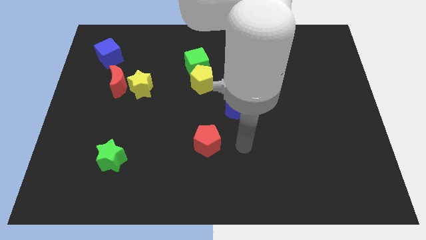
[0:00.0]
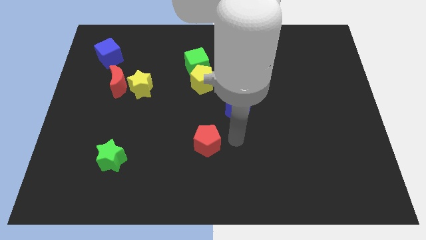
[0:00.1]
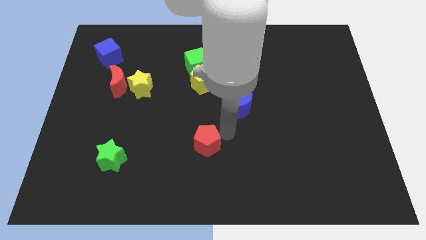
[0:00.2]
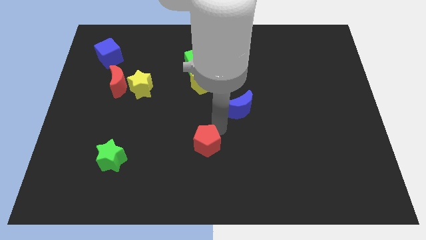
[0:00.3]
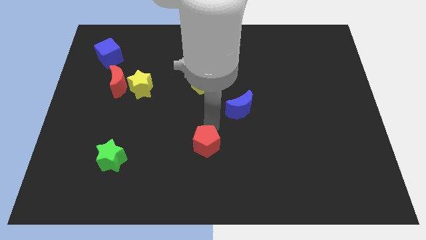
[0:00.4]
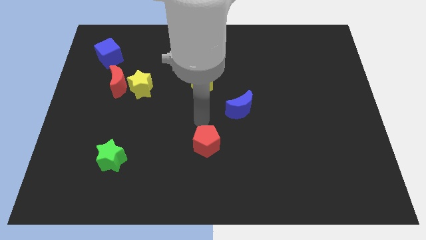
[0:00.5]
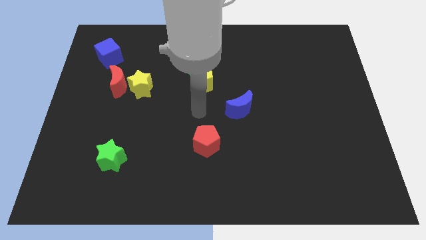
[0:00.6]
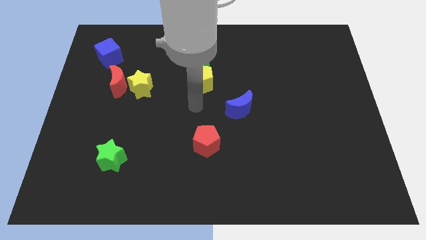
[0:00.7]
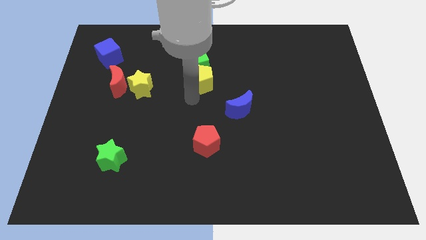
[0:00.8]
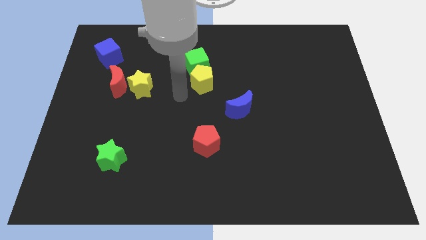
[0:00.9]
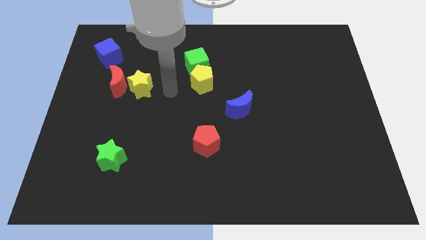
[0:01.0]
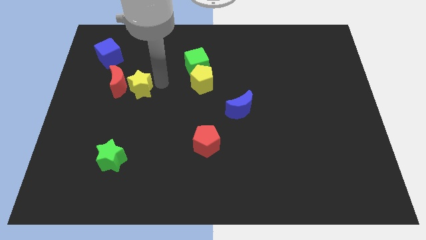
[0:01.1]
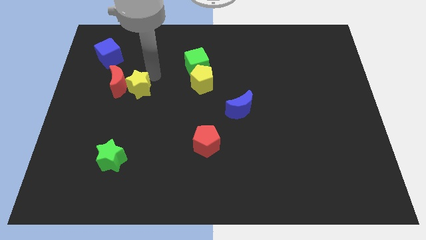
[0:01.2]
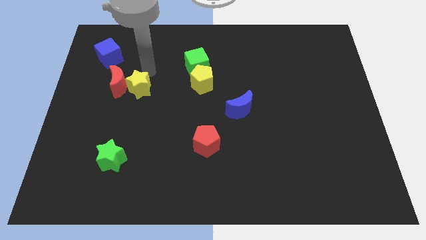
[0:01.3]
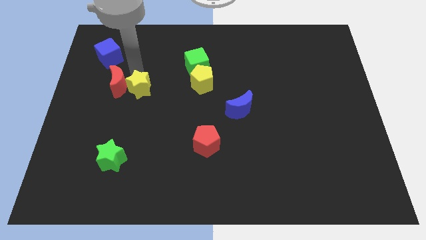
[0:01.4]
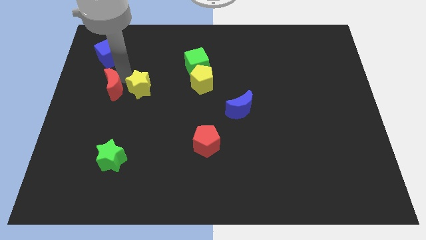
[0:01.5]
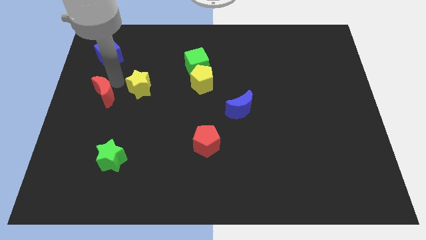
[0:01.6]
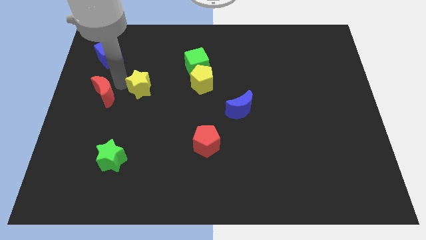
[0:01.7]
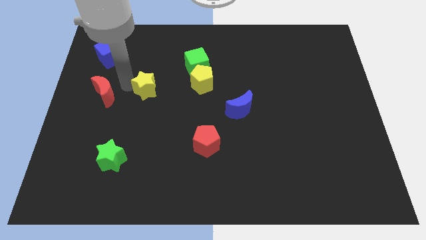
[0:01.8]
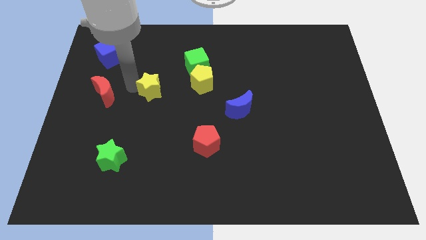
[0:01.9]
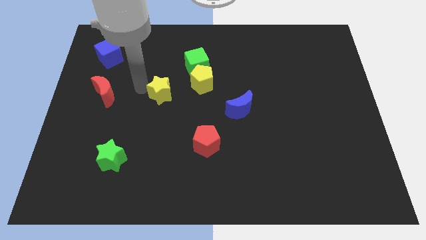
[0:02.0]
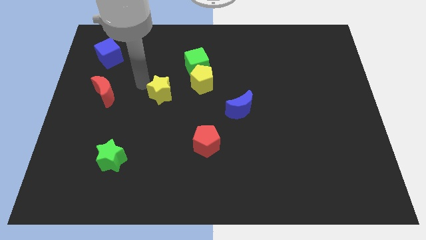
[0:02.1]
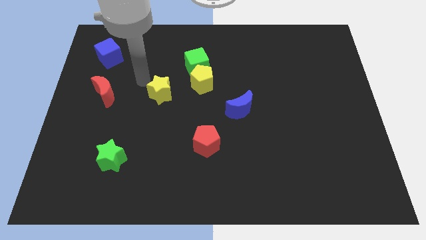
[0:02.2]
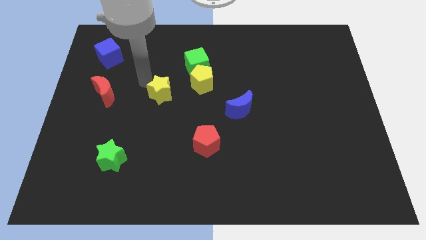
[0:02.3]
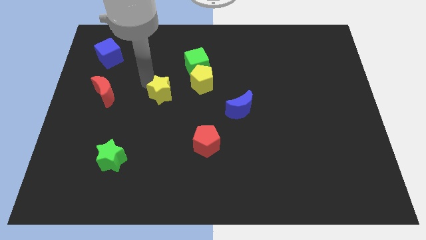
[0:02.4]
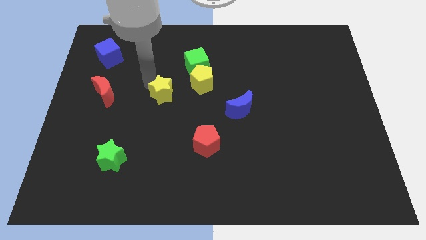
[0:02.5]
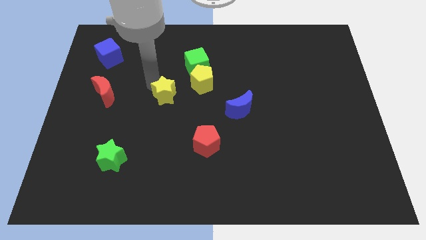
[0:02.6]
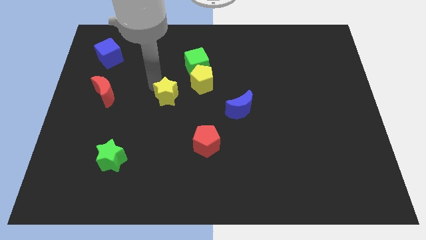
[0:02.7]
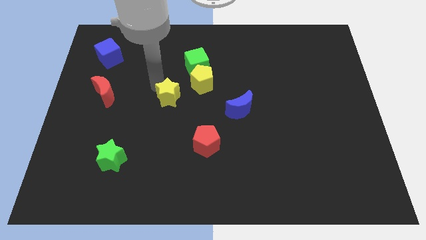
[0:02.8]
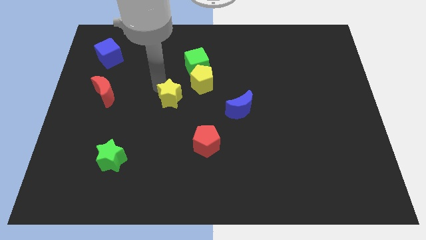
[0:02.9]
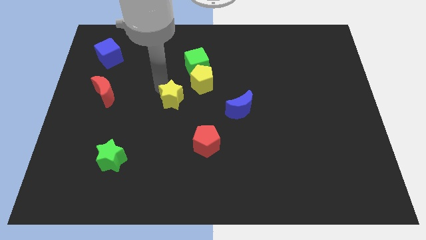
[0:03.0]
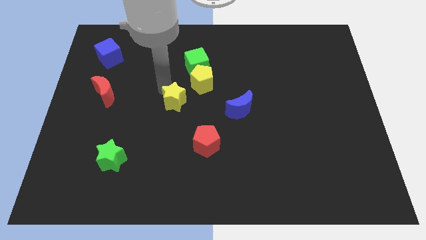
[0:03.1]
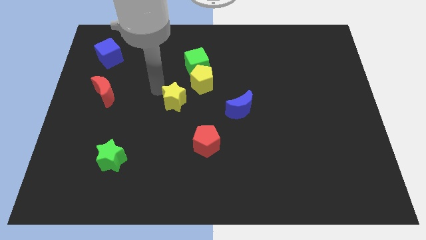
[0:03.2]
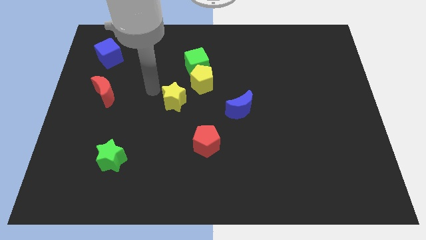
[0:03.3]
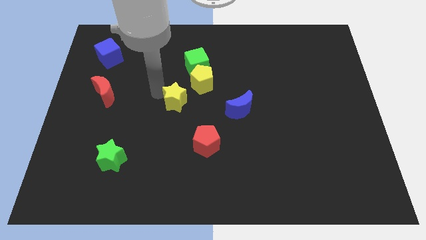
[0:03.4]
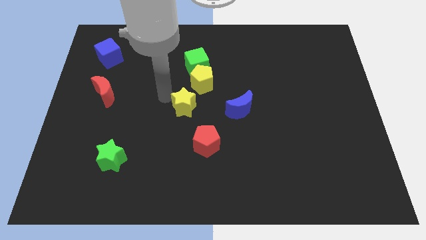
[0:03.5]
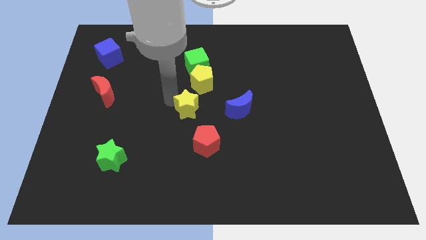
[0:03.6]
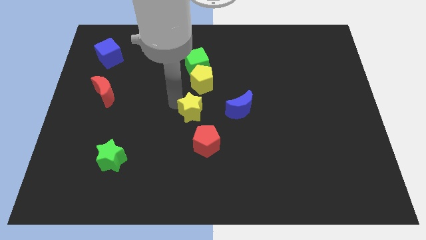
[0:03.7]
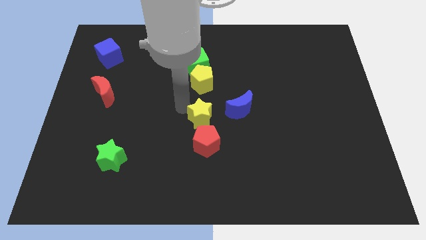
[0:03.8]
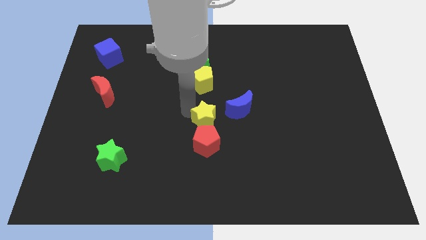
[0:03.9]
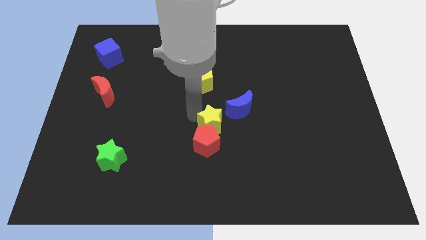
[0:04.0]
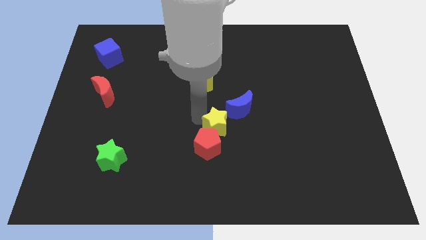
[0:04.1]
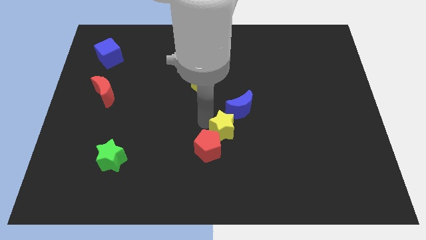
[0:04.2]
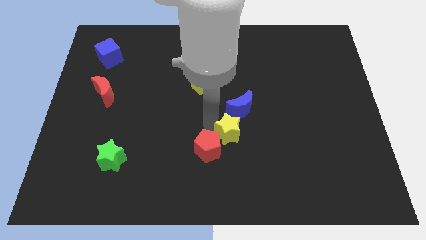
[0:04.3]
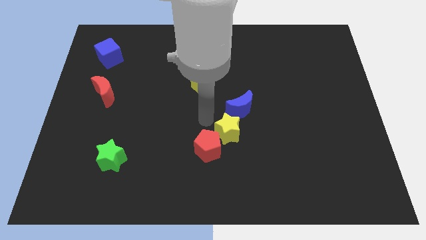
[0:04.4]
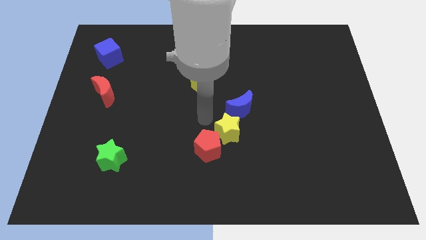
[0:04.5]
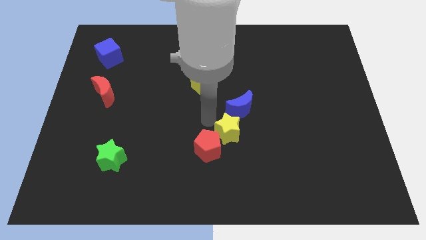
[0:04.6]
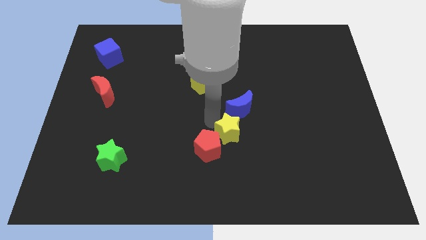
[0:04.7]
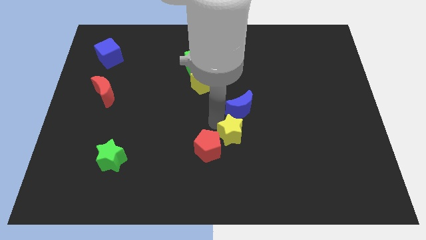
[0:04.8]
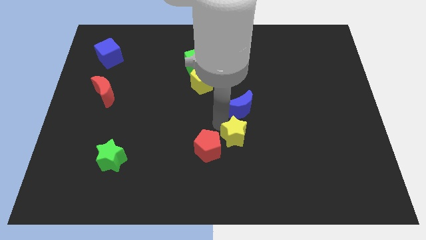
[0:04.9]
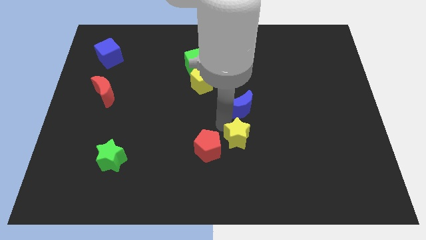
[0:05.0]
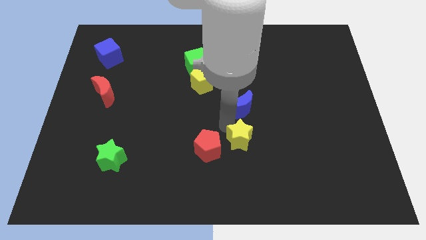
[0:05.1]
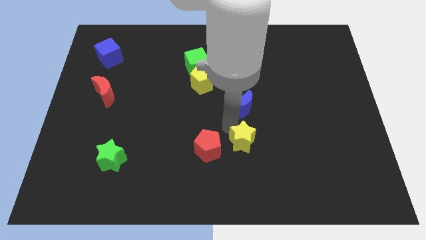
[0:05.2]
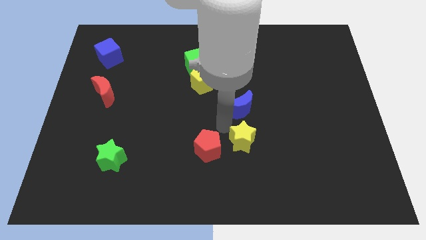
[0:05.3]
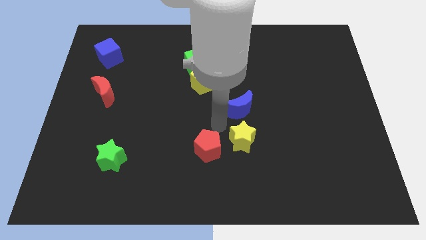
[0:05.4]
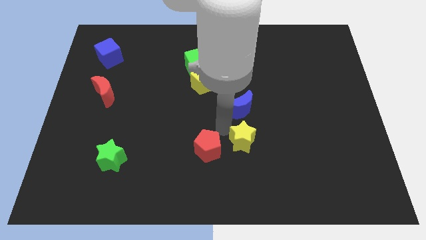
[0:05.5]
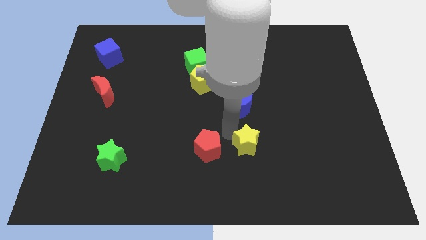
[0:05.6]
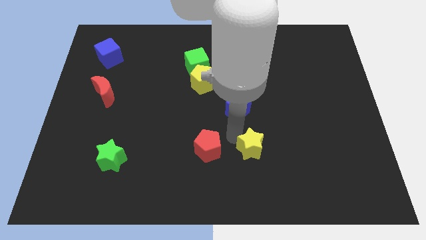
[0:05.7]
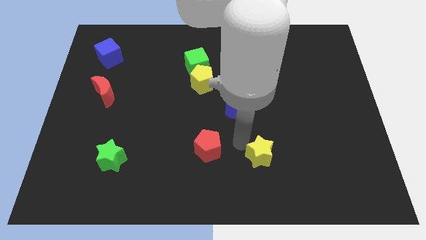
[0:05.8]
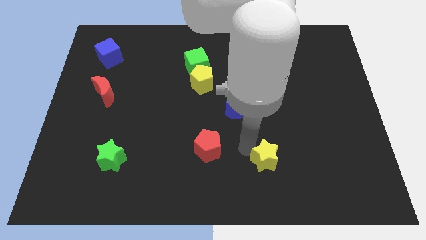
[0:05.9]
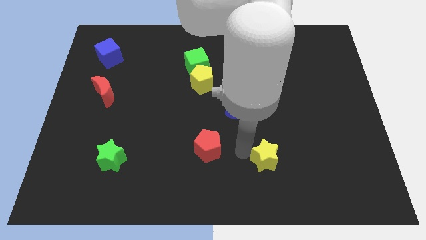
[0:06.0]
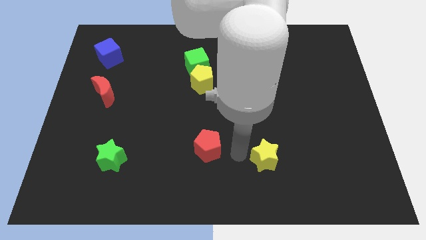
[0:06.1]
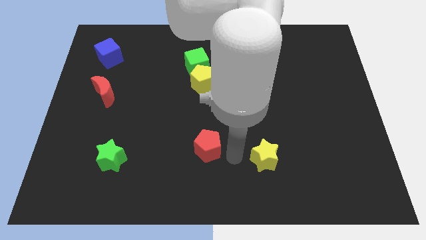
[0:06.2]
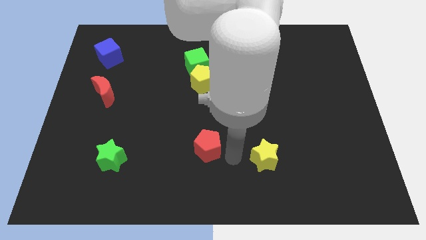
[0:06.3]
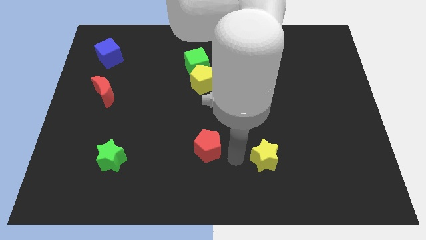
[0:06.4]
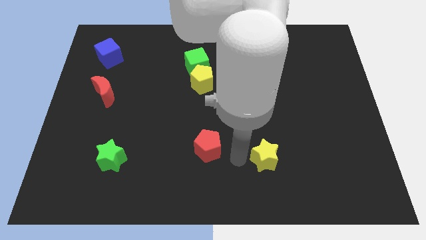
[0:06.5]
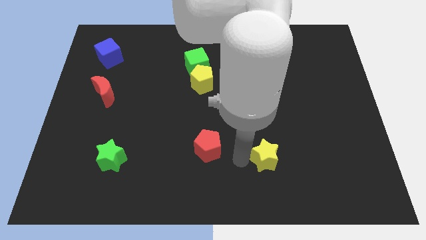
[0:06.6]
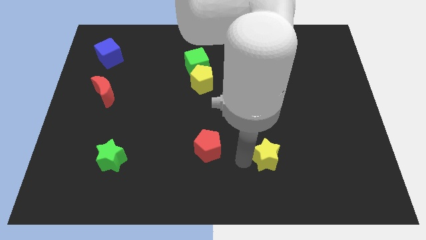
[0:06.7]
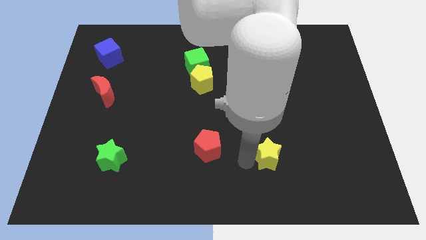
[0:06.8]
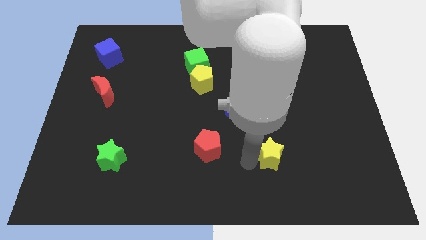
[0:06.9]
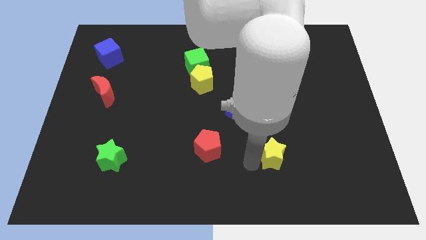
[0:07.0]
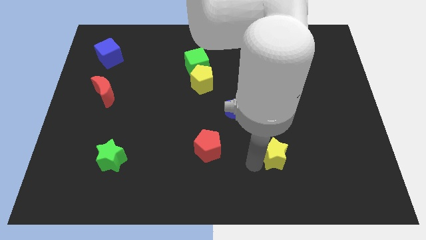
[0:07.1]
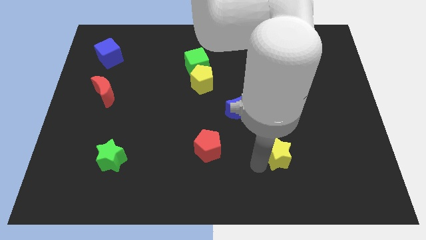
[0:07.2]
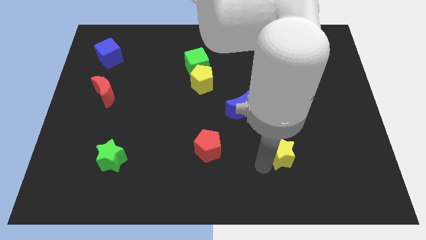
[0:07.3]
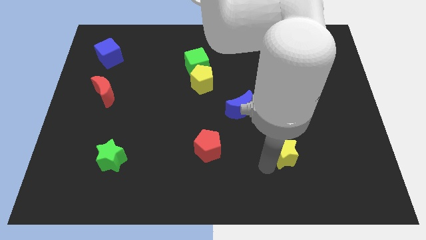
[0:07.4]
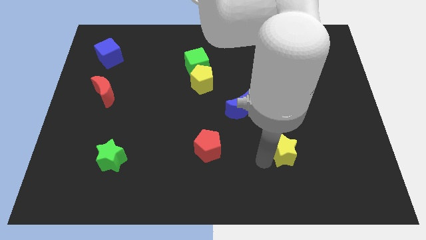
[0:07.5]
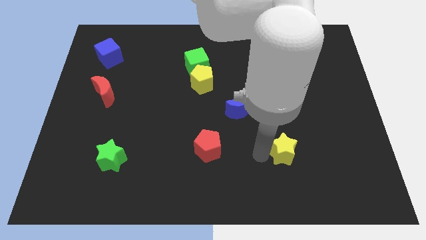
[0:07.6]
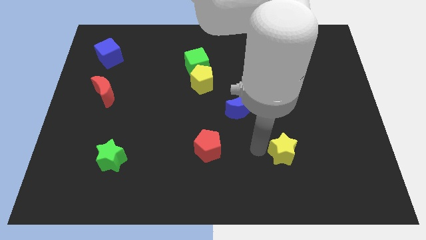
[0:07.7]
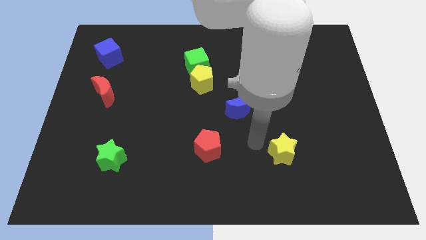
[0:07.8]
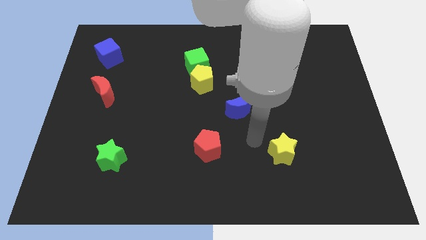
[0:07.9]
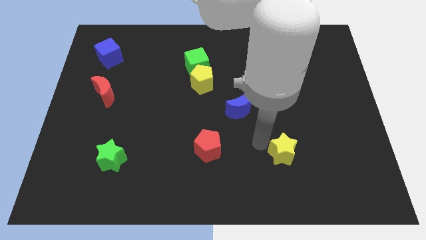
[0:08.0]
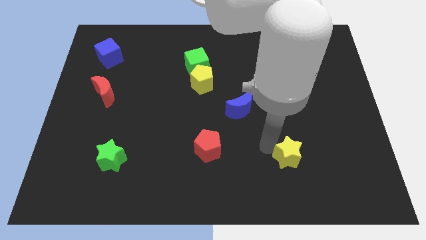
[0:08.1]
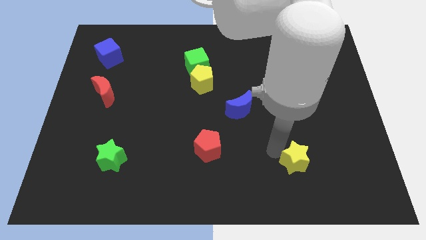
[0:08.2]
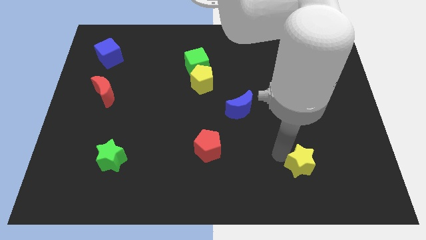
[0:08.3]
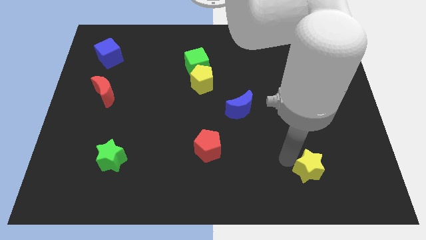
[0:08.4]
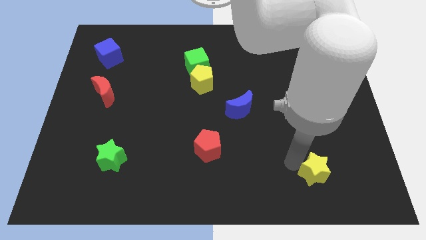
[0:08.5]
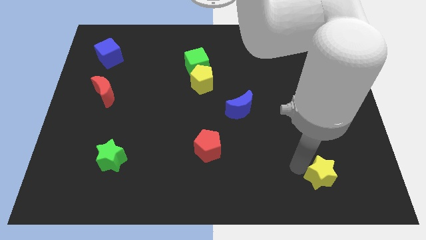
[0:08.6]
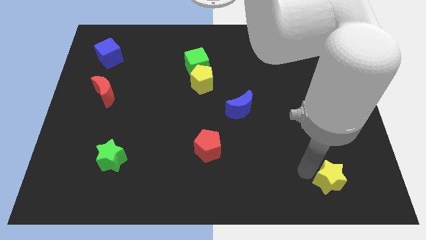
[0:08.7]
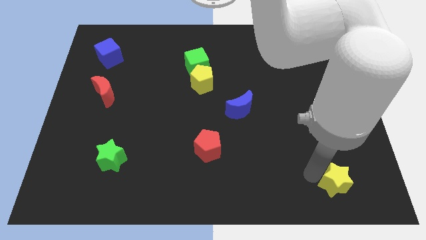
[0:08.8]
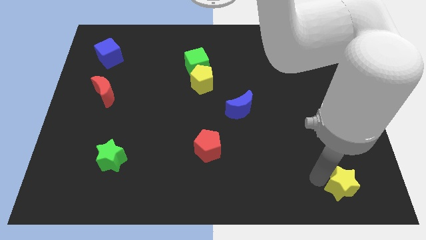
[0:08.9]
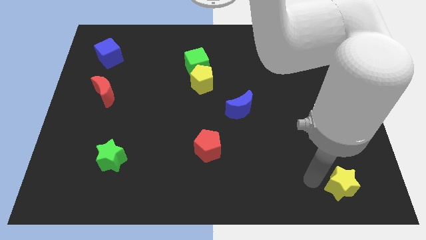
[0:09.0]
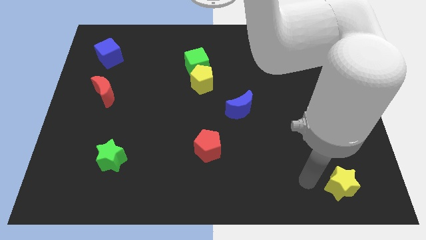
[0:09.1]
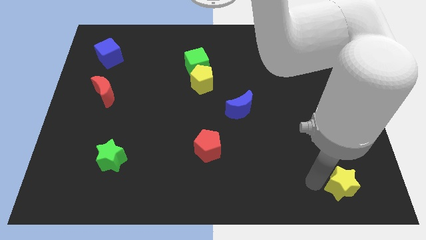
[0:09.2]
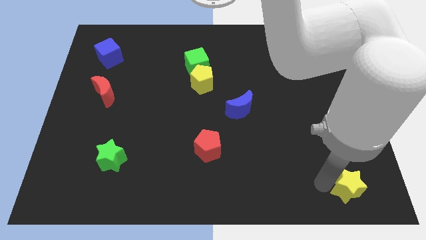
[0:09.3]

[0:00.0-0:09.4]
put the yellow star to the bottom right corner
